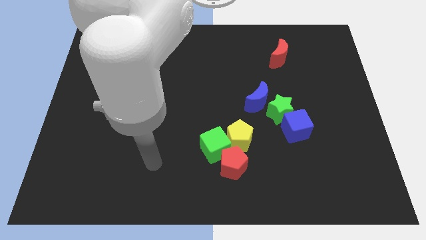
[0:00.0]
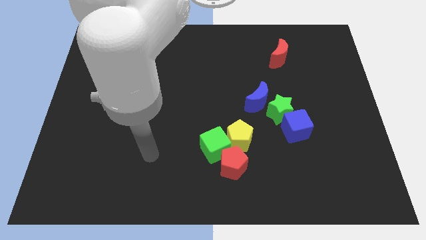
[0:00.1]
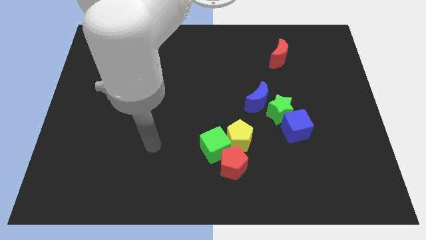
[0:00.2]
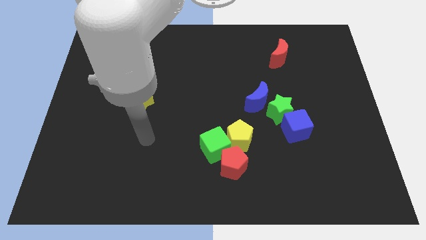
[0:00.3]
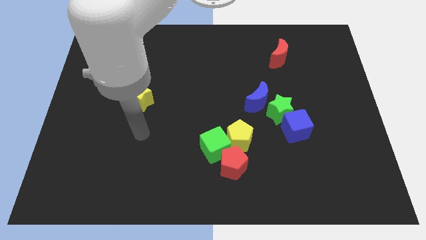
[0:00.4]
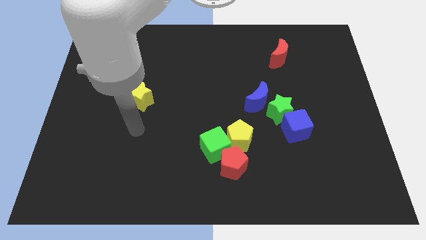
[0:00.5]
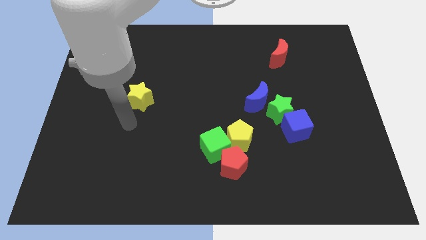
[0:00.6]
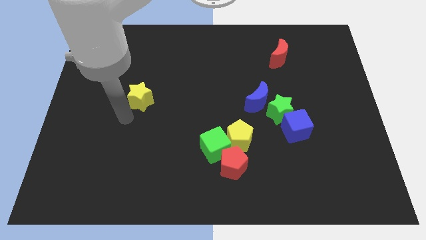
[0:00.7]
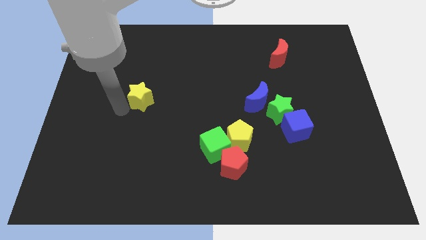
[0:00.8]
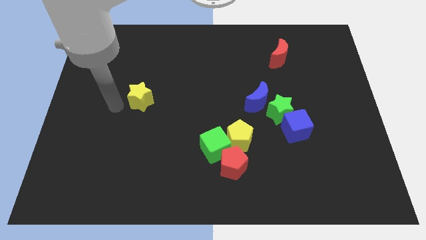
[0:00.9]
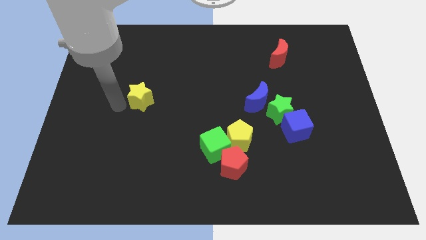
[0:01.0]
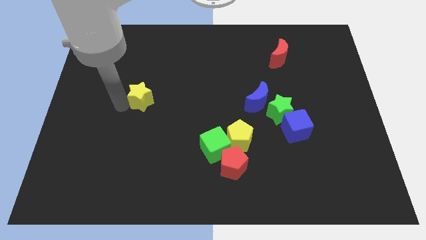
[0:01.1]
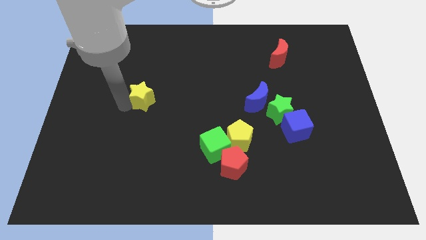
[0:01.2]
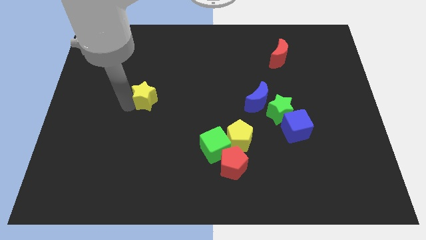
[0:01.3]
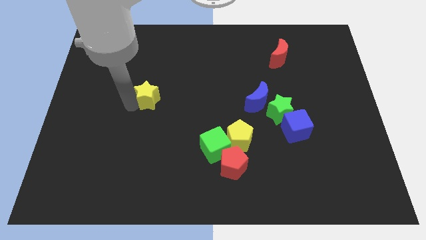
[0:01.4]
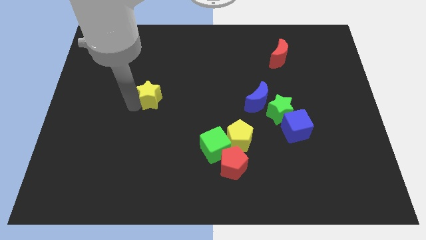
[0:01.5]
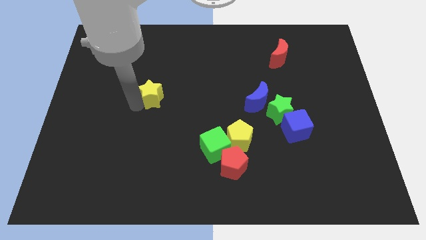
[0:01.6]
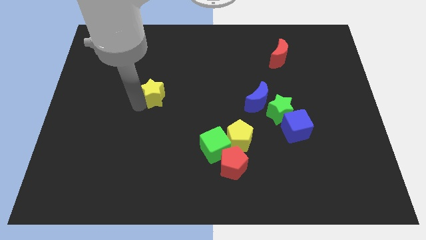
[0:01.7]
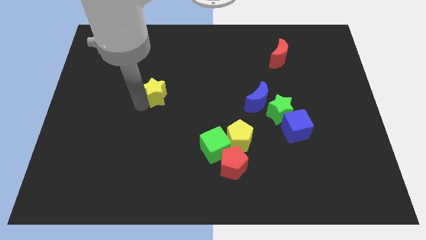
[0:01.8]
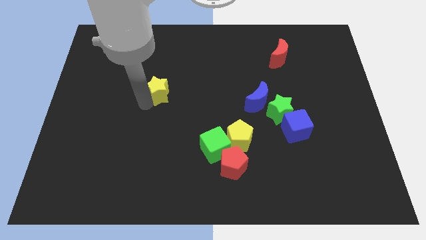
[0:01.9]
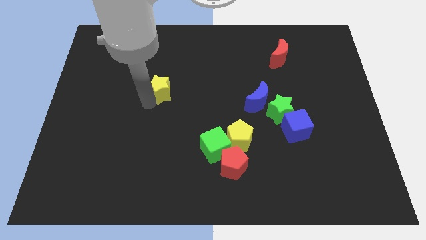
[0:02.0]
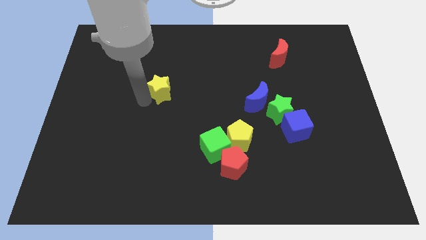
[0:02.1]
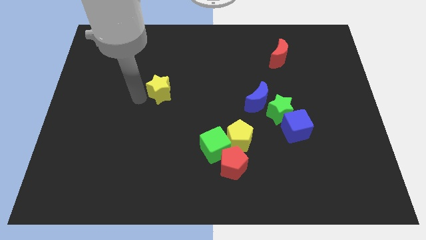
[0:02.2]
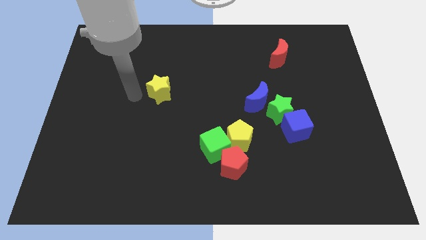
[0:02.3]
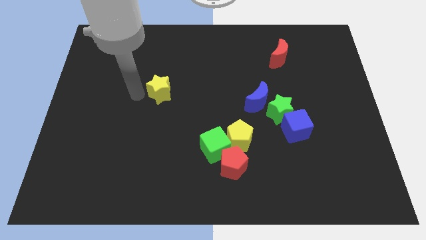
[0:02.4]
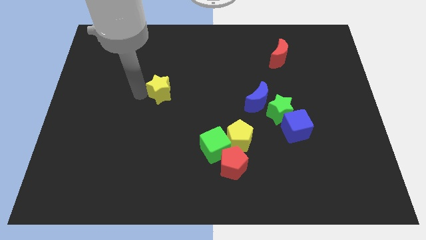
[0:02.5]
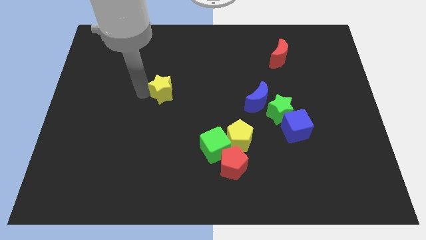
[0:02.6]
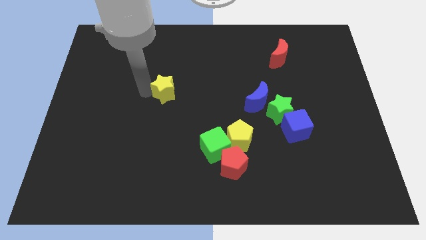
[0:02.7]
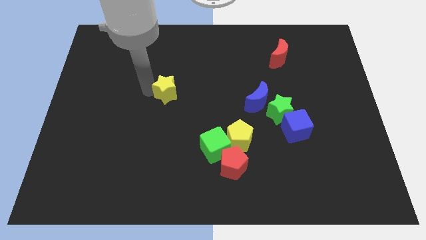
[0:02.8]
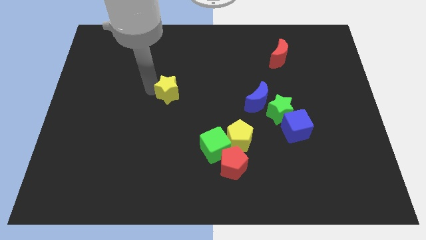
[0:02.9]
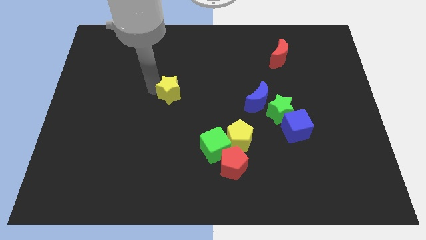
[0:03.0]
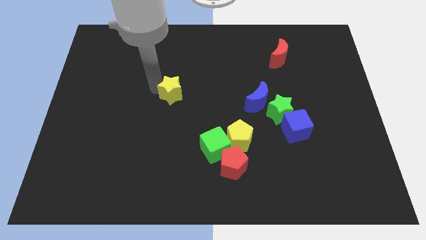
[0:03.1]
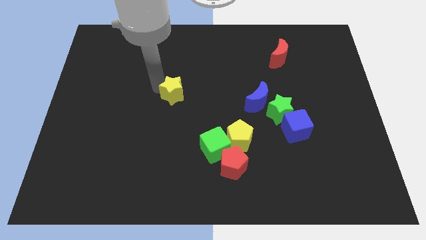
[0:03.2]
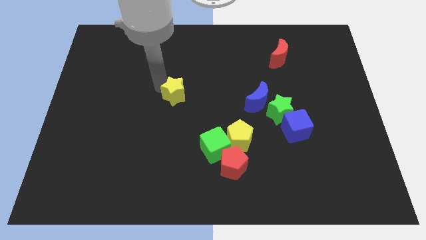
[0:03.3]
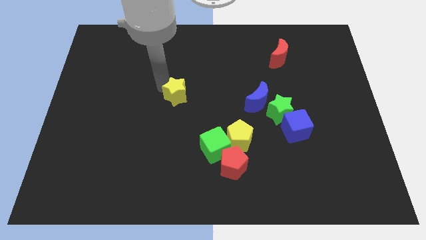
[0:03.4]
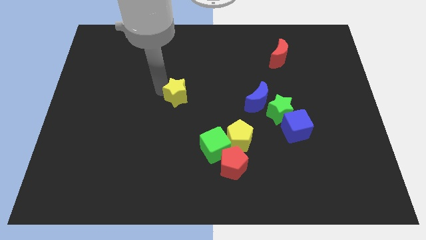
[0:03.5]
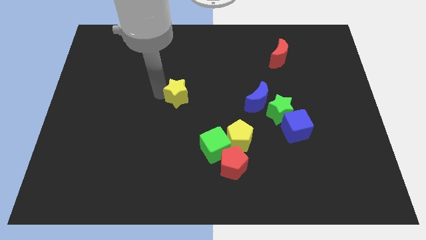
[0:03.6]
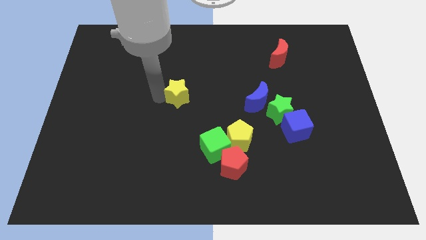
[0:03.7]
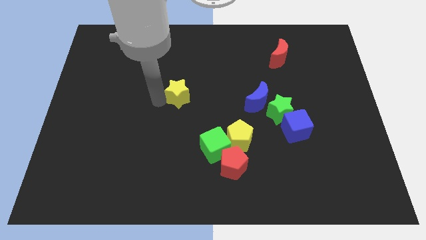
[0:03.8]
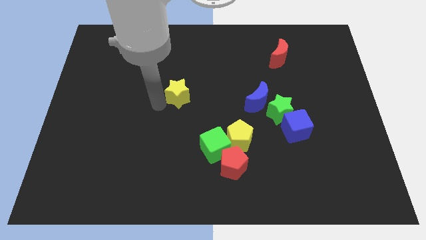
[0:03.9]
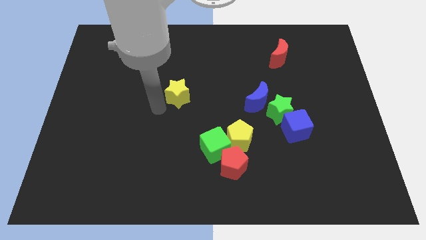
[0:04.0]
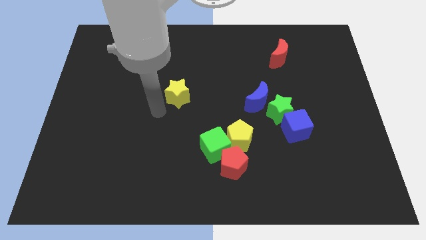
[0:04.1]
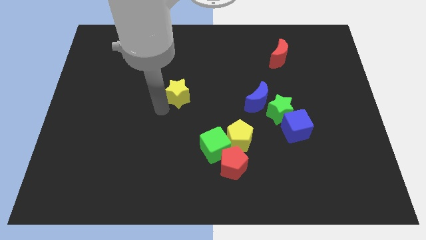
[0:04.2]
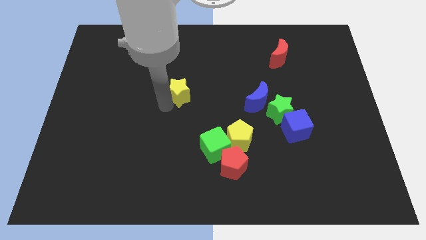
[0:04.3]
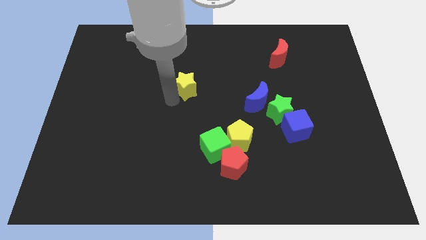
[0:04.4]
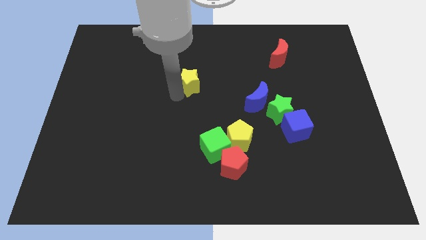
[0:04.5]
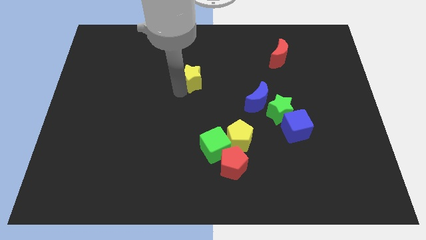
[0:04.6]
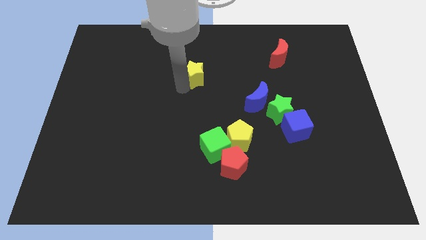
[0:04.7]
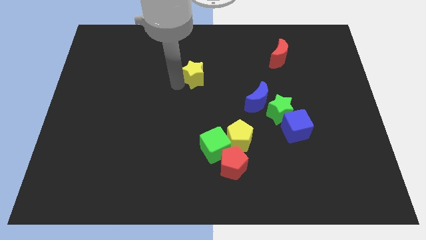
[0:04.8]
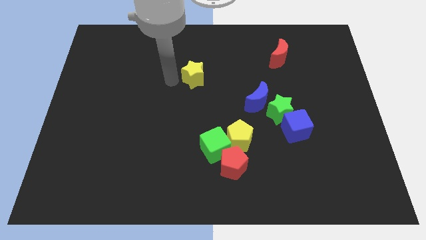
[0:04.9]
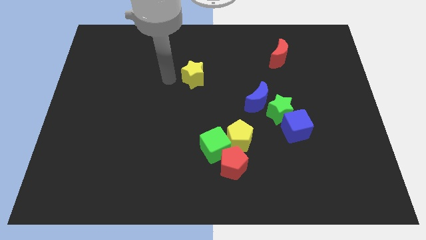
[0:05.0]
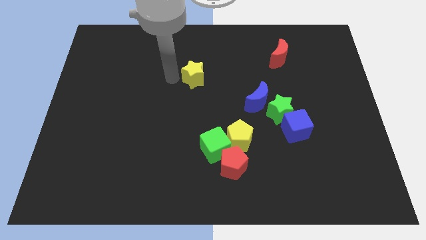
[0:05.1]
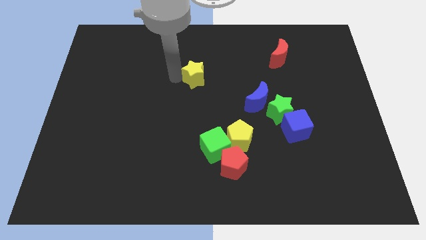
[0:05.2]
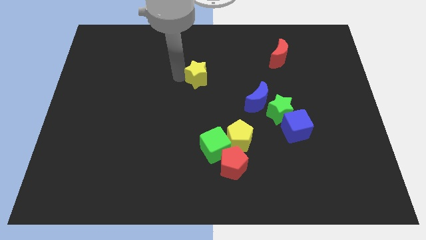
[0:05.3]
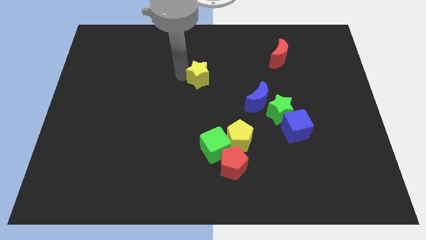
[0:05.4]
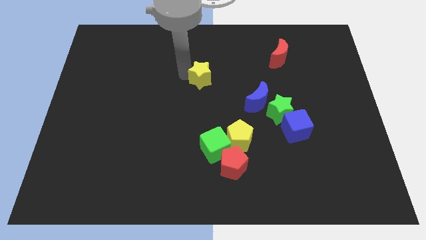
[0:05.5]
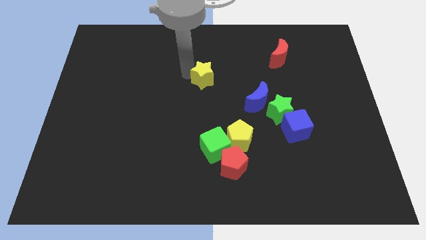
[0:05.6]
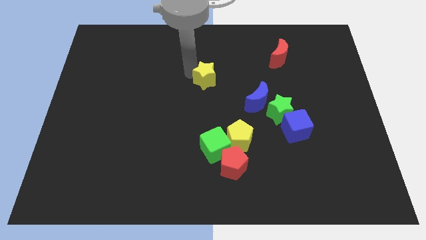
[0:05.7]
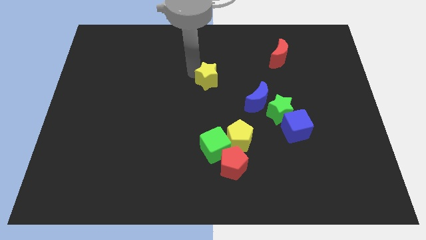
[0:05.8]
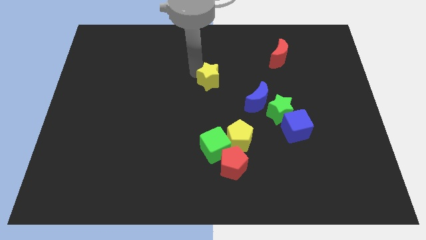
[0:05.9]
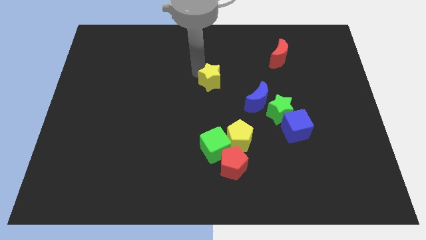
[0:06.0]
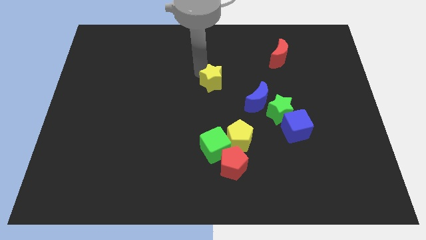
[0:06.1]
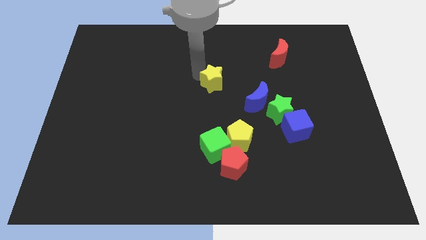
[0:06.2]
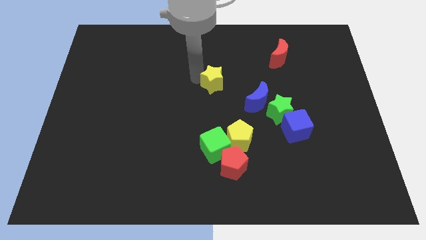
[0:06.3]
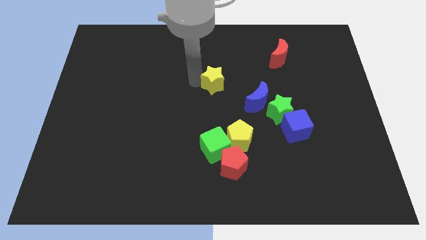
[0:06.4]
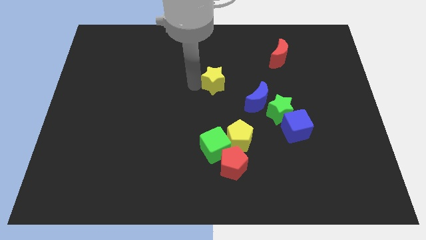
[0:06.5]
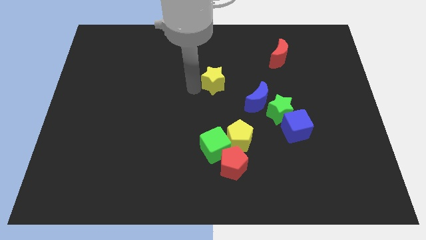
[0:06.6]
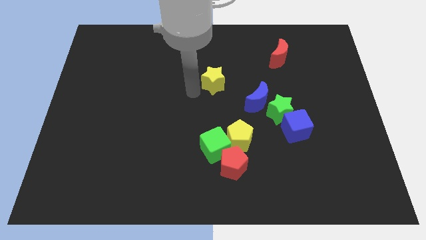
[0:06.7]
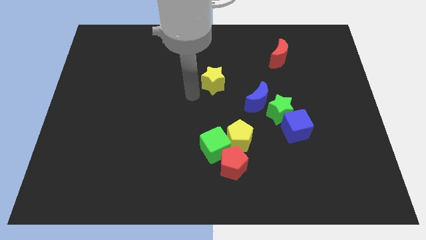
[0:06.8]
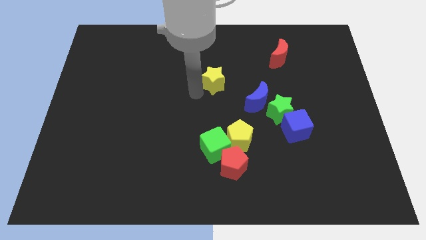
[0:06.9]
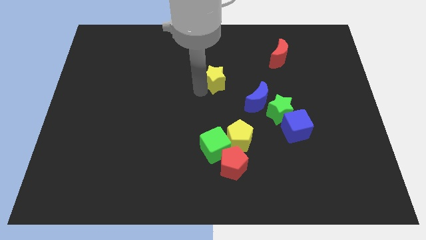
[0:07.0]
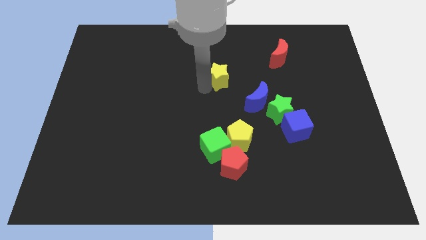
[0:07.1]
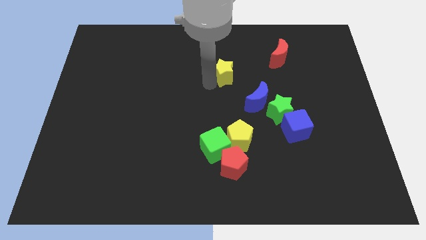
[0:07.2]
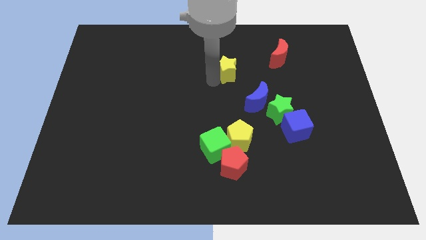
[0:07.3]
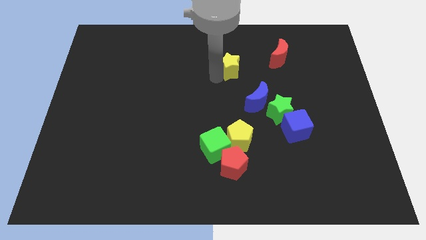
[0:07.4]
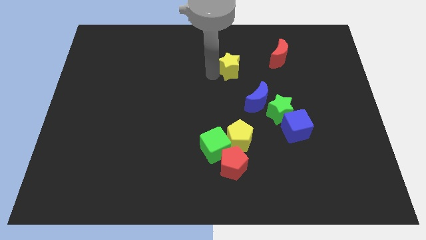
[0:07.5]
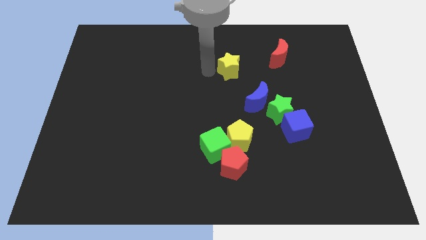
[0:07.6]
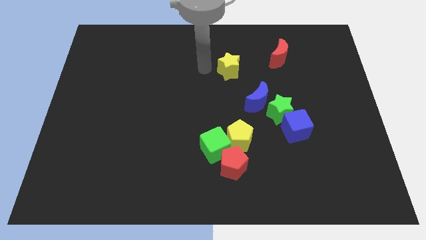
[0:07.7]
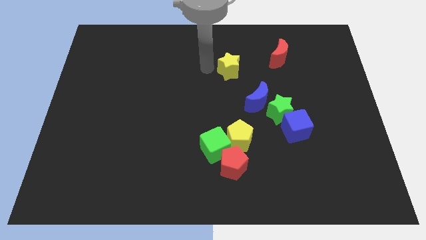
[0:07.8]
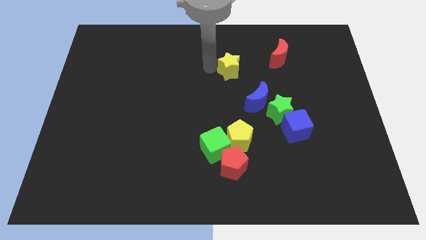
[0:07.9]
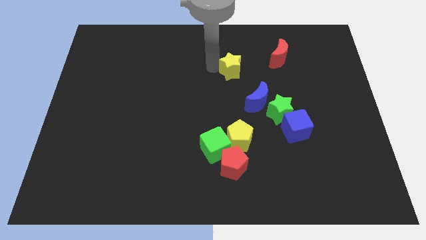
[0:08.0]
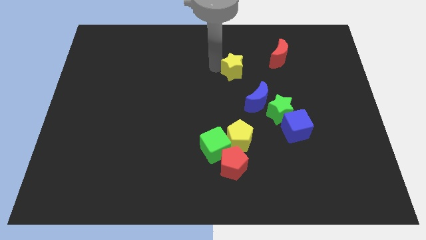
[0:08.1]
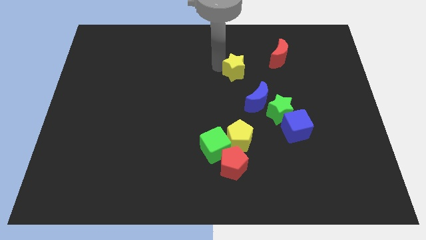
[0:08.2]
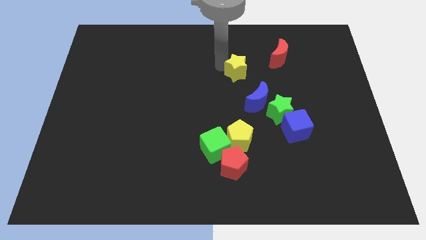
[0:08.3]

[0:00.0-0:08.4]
slide the yellow star above the blue moon
